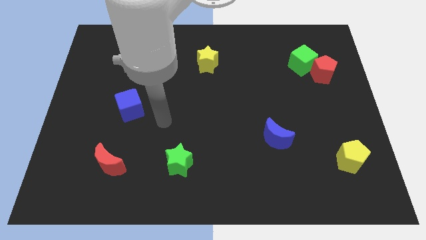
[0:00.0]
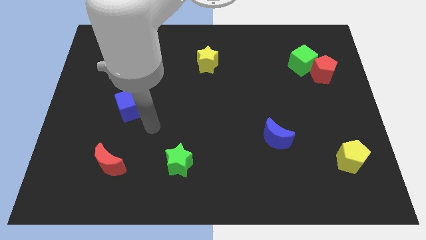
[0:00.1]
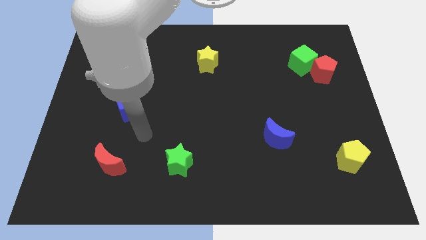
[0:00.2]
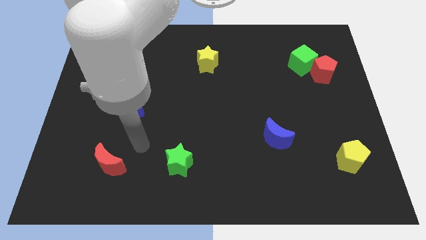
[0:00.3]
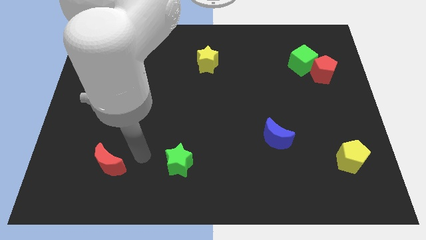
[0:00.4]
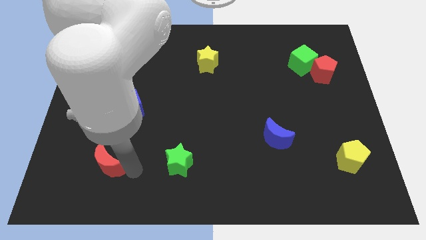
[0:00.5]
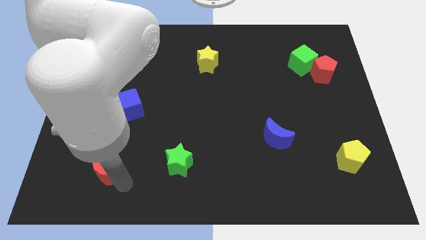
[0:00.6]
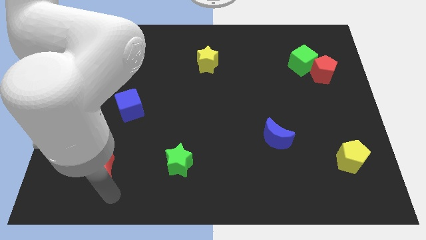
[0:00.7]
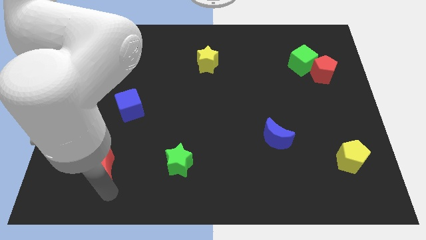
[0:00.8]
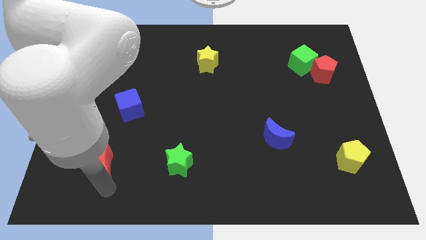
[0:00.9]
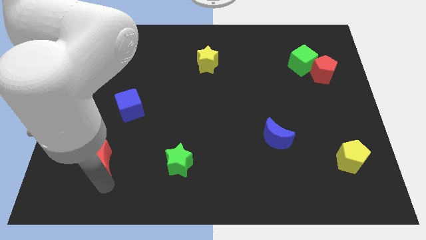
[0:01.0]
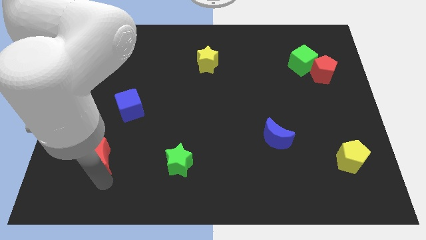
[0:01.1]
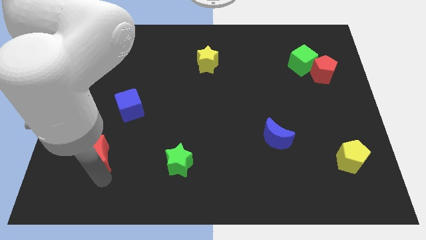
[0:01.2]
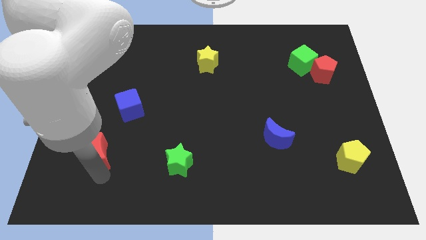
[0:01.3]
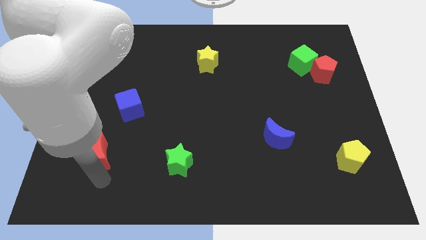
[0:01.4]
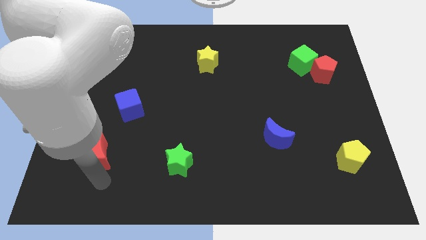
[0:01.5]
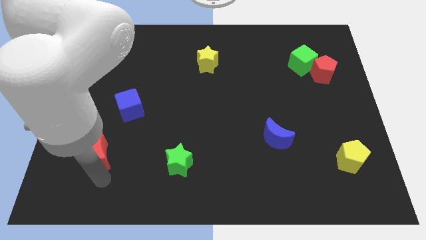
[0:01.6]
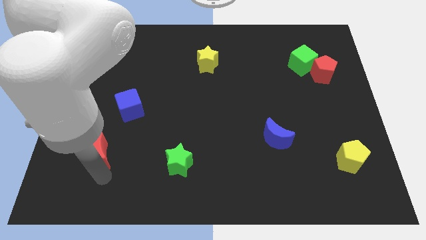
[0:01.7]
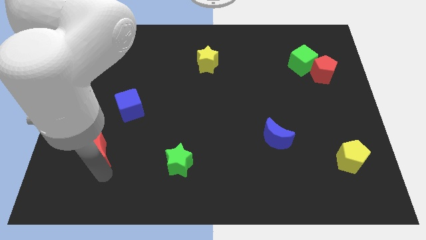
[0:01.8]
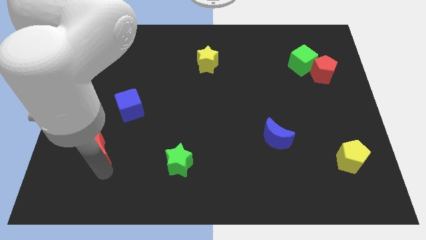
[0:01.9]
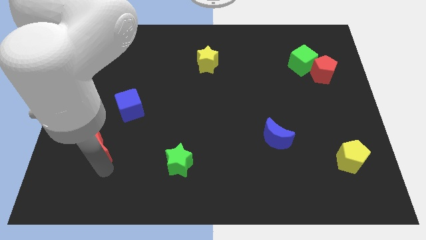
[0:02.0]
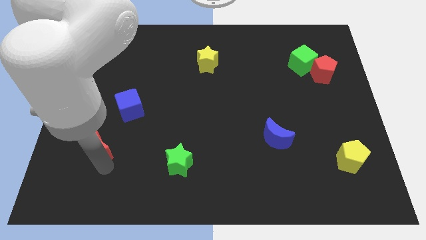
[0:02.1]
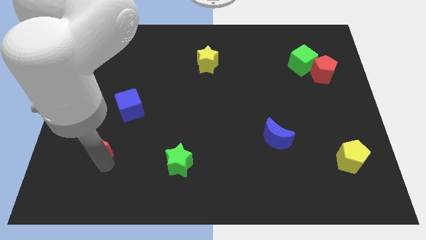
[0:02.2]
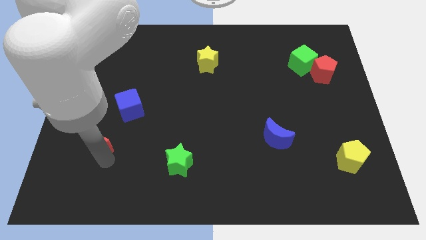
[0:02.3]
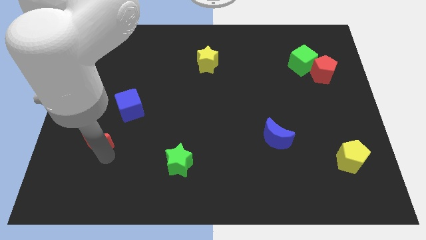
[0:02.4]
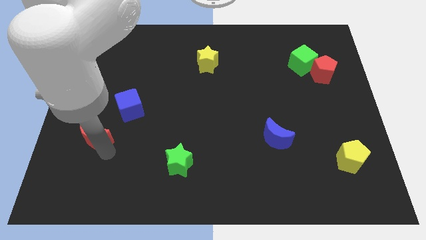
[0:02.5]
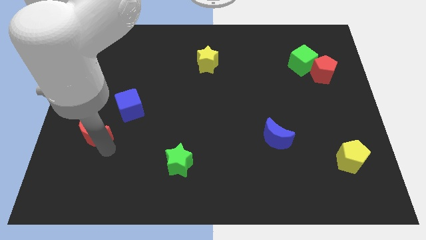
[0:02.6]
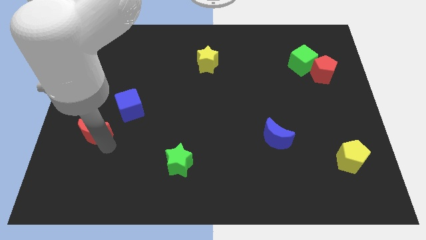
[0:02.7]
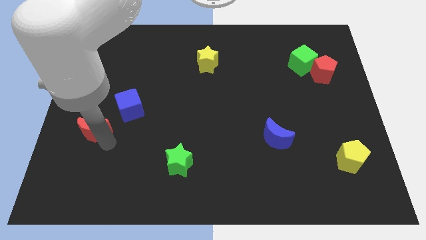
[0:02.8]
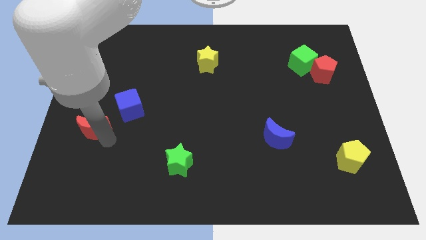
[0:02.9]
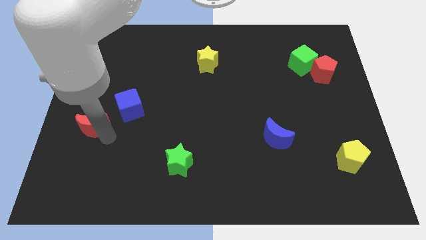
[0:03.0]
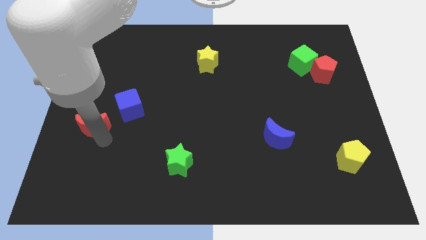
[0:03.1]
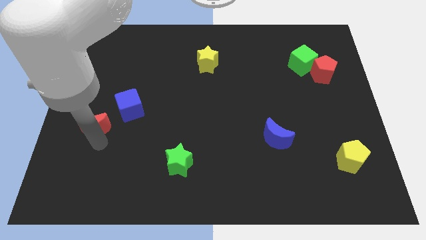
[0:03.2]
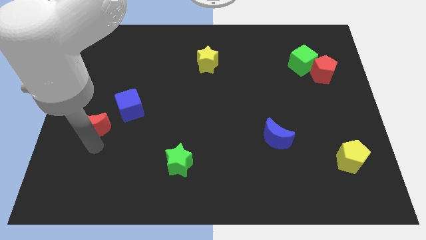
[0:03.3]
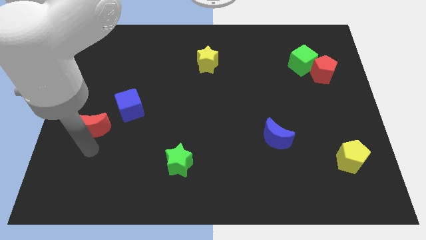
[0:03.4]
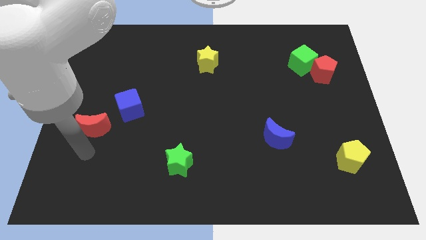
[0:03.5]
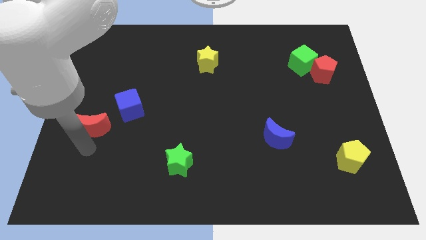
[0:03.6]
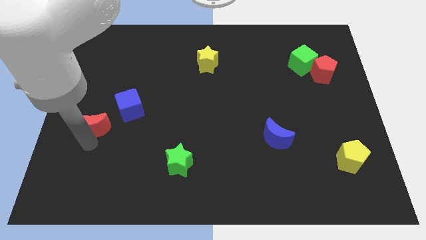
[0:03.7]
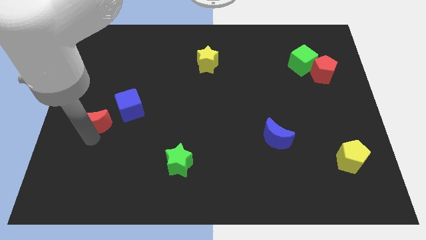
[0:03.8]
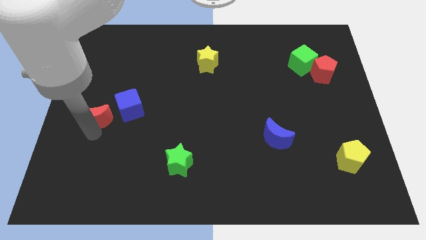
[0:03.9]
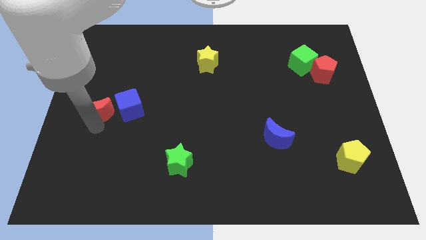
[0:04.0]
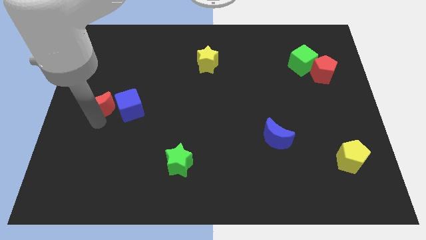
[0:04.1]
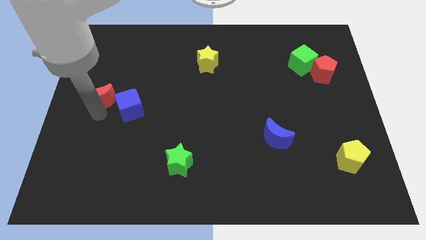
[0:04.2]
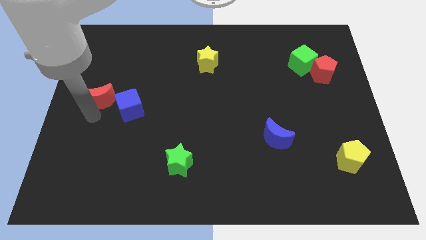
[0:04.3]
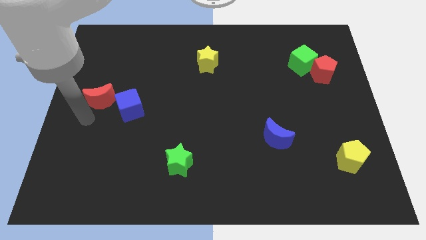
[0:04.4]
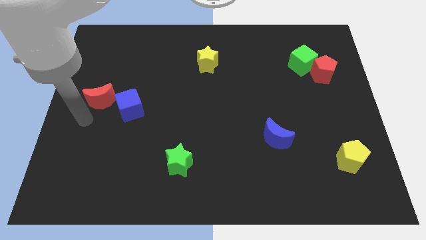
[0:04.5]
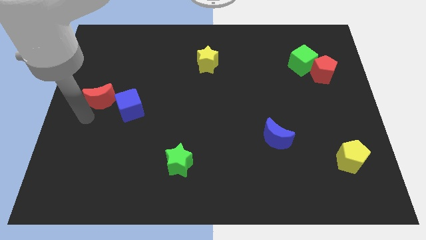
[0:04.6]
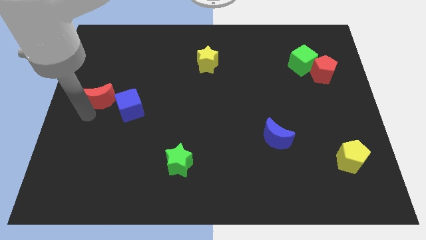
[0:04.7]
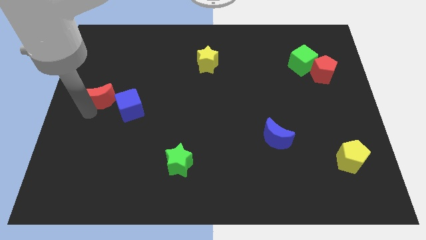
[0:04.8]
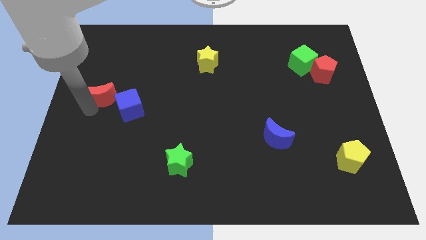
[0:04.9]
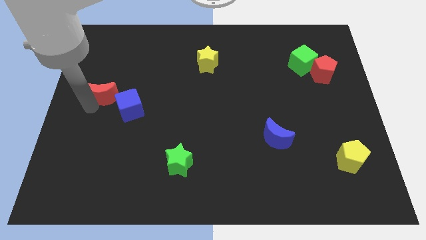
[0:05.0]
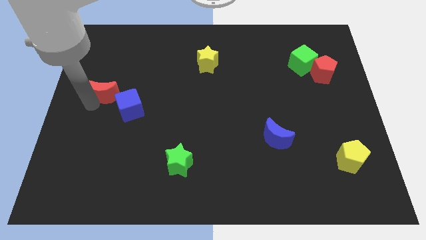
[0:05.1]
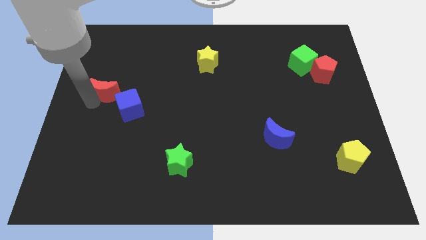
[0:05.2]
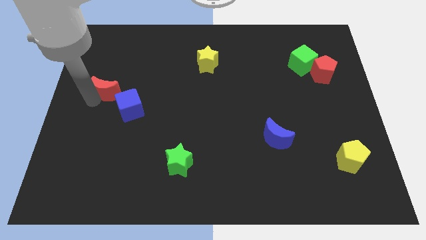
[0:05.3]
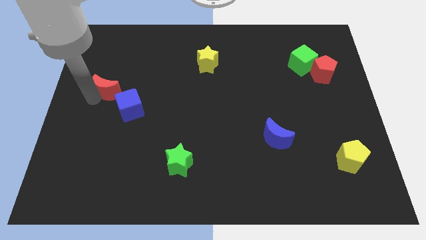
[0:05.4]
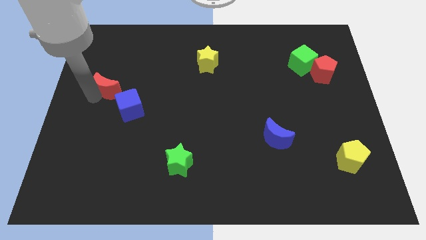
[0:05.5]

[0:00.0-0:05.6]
push the red moon upwards

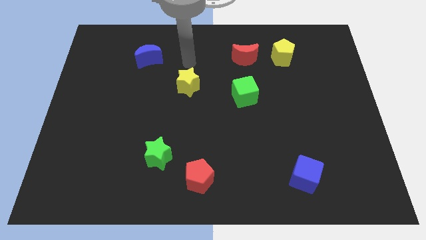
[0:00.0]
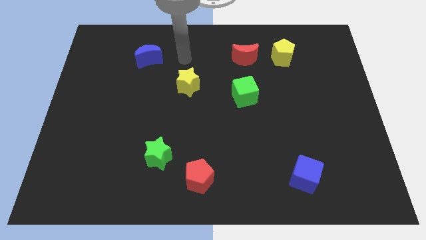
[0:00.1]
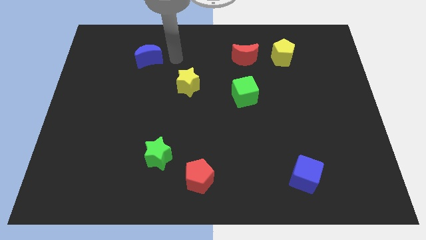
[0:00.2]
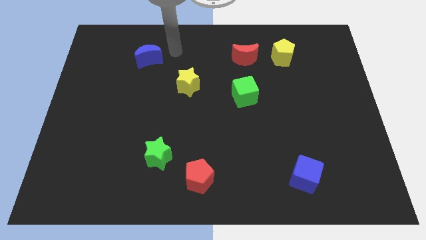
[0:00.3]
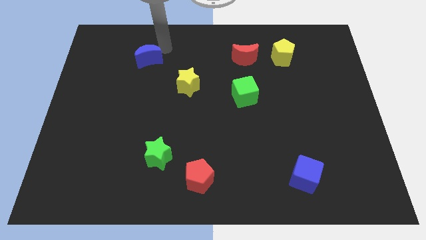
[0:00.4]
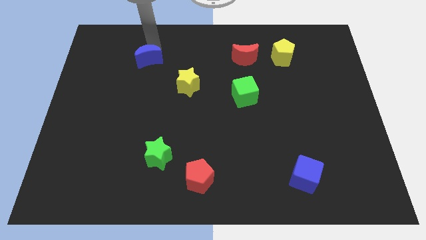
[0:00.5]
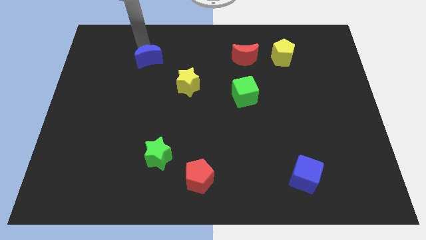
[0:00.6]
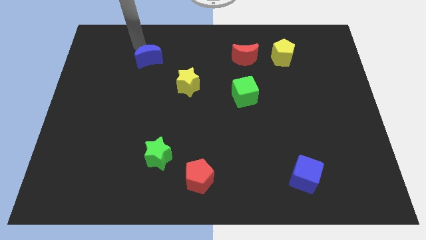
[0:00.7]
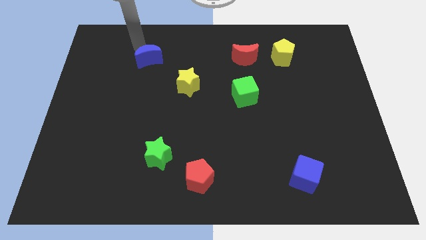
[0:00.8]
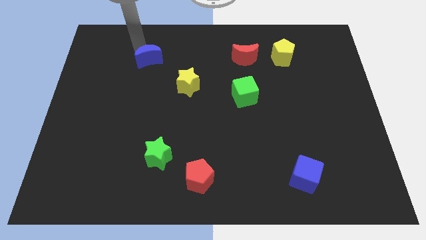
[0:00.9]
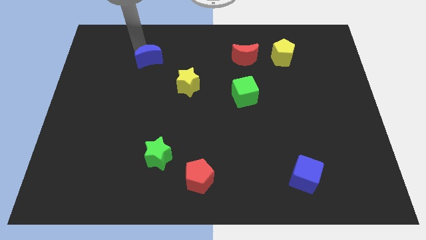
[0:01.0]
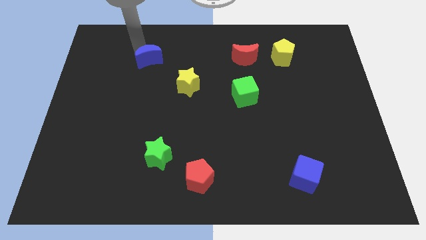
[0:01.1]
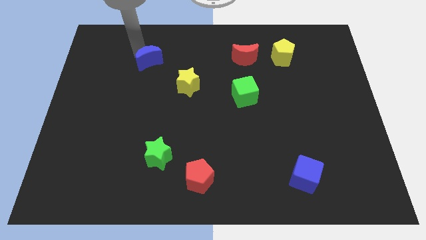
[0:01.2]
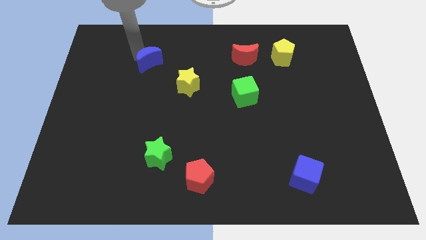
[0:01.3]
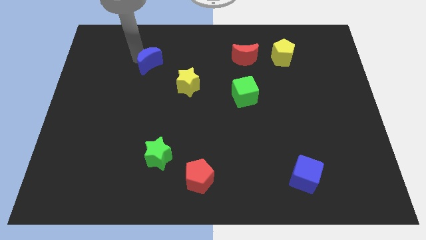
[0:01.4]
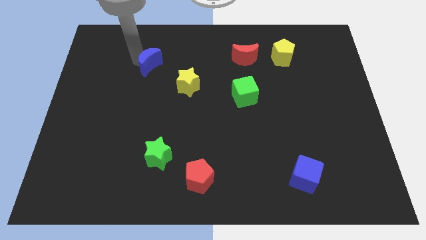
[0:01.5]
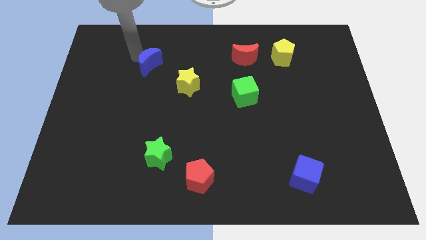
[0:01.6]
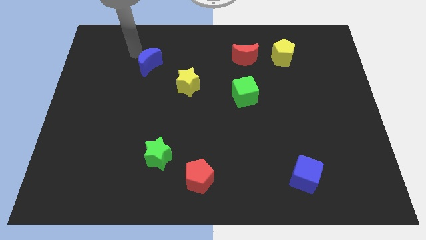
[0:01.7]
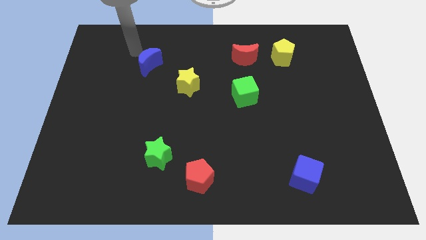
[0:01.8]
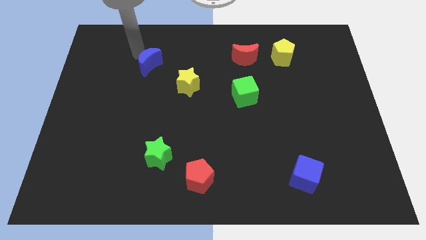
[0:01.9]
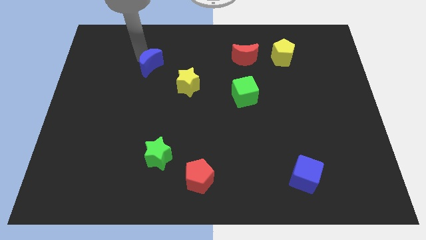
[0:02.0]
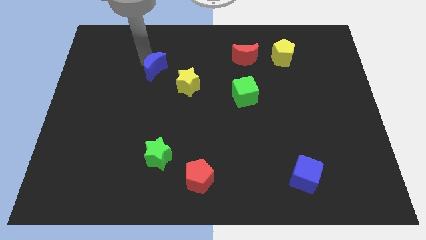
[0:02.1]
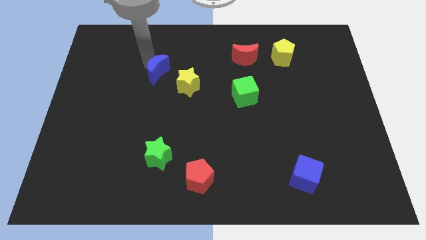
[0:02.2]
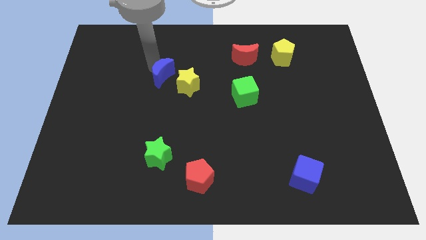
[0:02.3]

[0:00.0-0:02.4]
move the blue moon somewhat down and then to the right

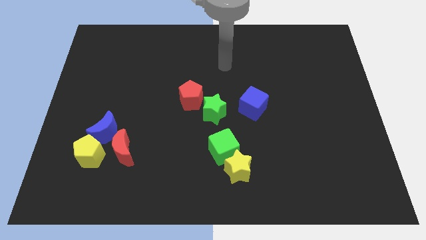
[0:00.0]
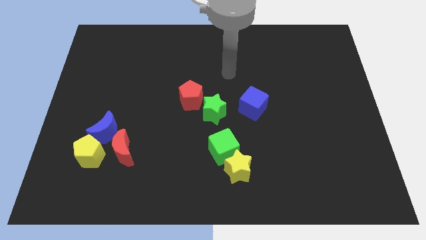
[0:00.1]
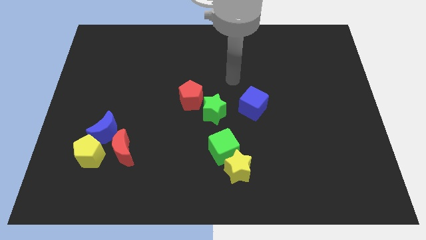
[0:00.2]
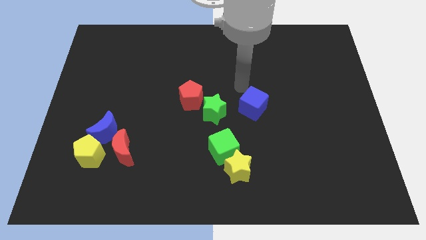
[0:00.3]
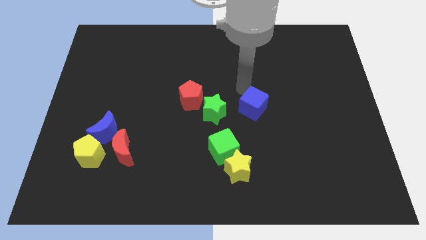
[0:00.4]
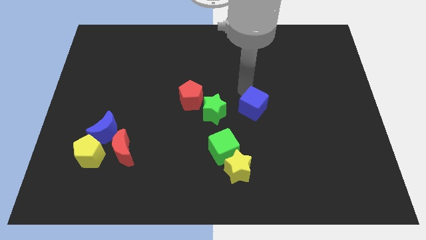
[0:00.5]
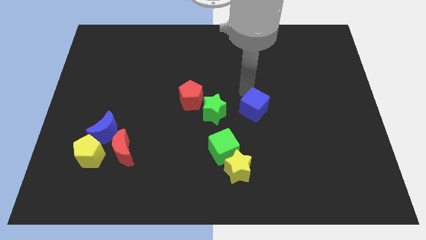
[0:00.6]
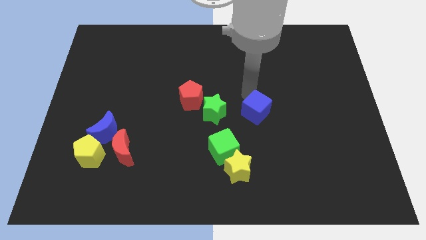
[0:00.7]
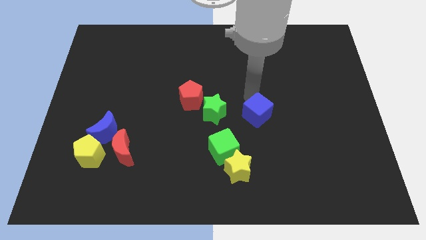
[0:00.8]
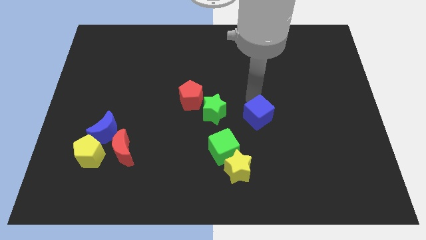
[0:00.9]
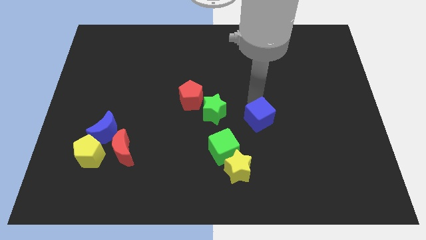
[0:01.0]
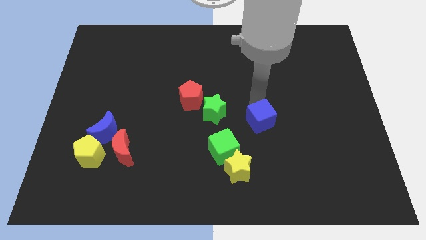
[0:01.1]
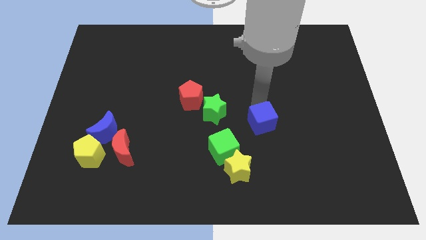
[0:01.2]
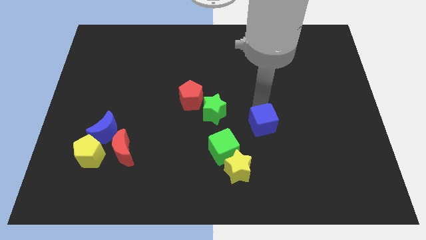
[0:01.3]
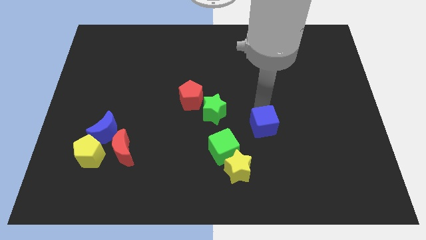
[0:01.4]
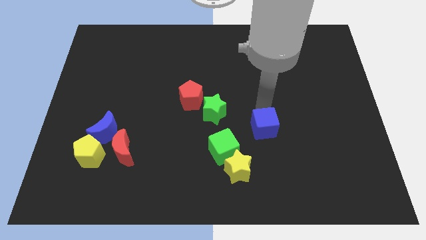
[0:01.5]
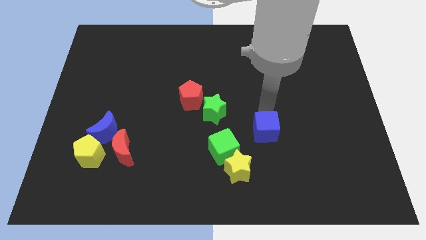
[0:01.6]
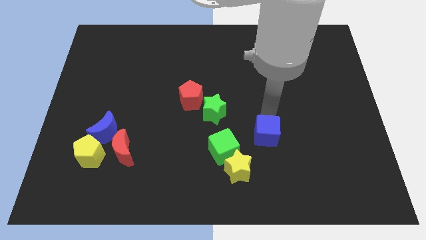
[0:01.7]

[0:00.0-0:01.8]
slightly slide the blue cube down
